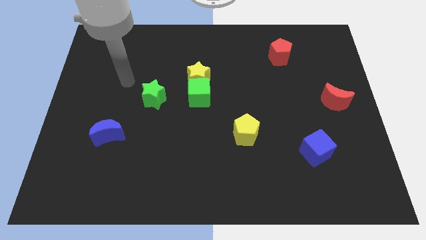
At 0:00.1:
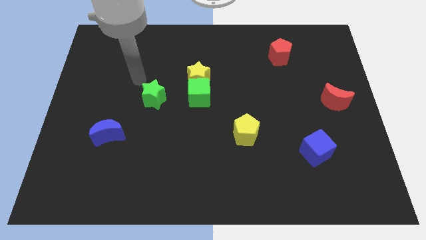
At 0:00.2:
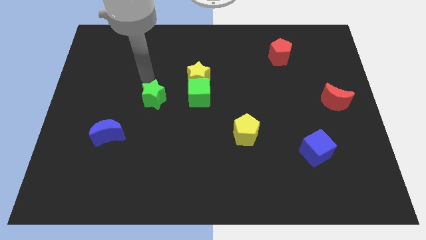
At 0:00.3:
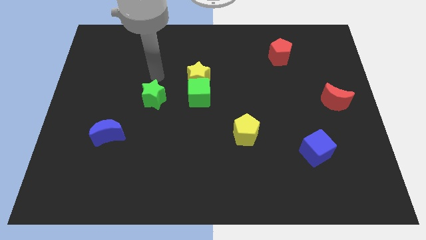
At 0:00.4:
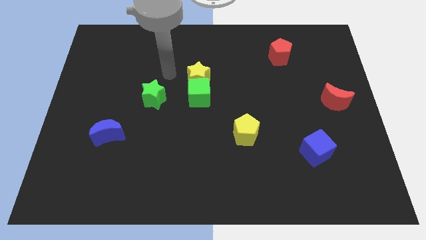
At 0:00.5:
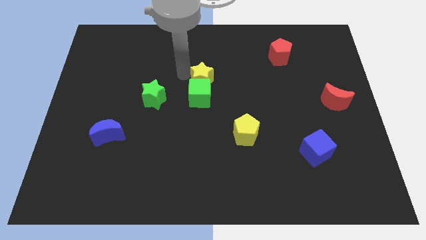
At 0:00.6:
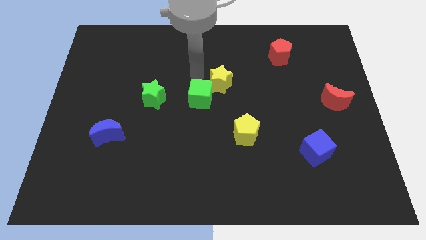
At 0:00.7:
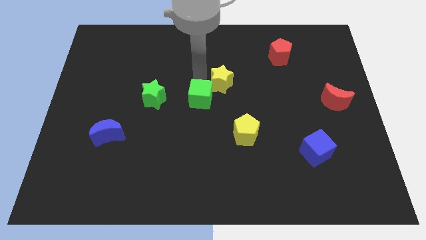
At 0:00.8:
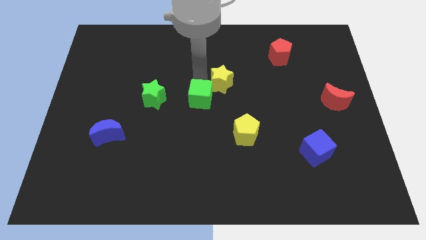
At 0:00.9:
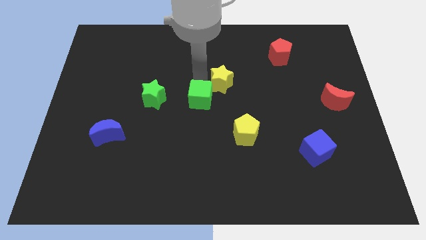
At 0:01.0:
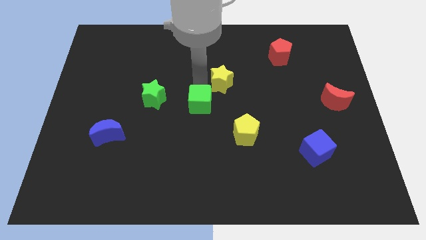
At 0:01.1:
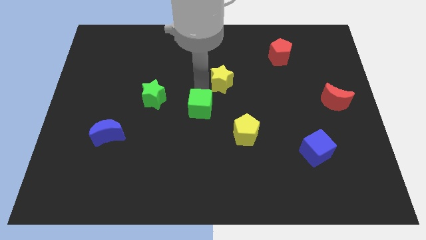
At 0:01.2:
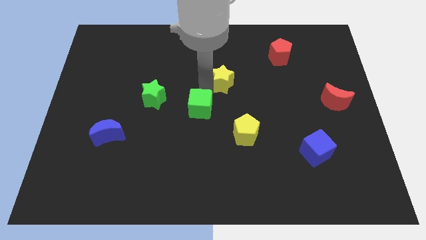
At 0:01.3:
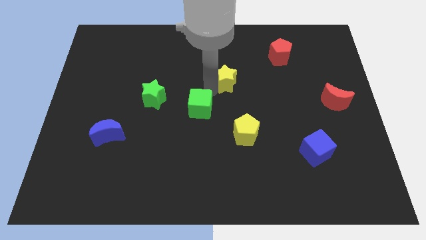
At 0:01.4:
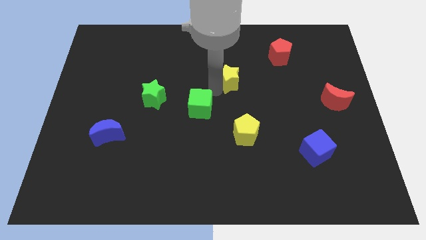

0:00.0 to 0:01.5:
separate the green cube from the yellow star

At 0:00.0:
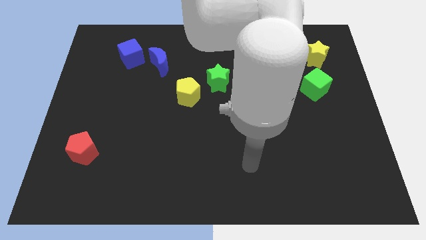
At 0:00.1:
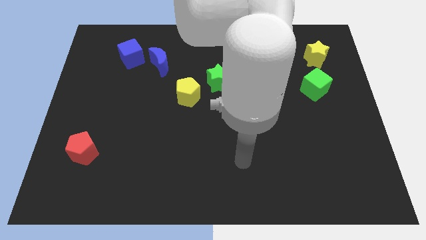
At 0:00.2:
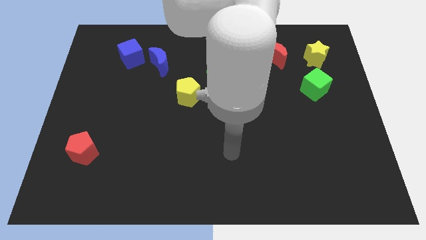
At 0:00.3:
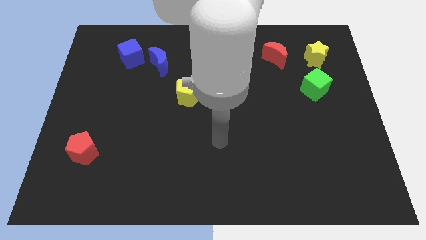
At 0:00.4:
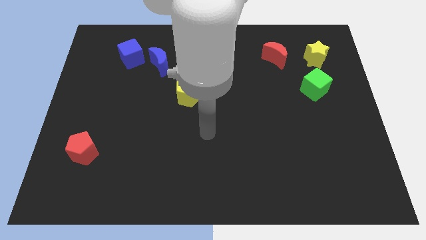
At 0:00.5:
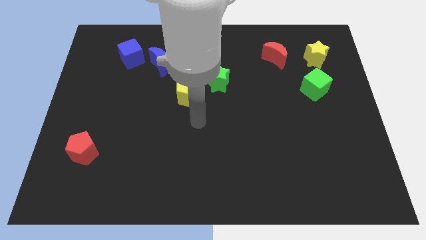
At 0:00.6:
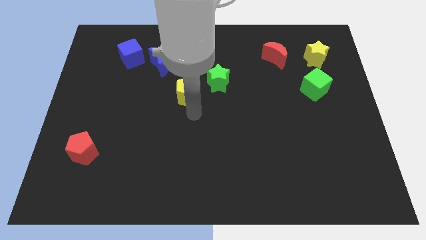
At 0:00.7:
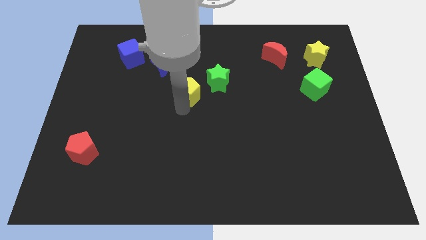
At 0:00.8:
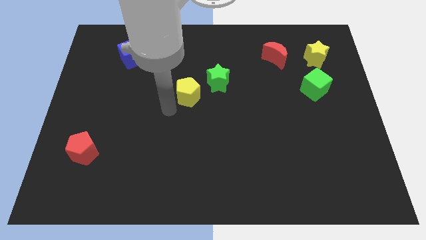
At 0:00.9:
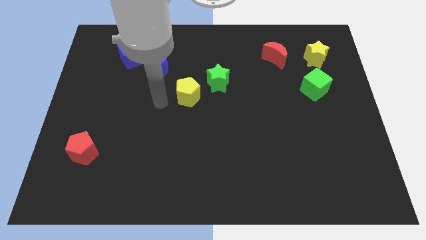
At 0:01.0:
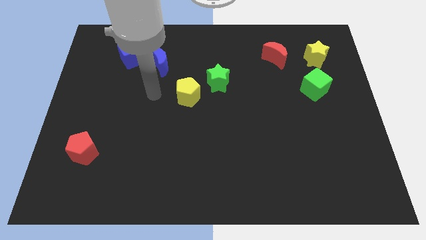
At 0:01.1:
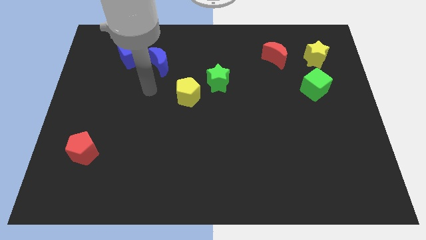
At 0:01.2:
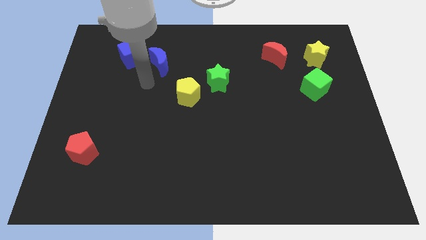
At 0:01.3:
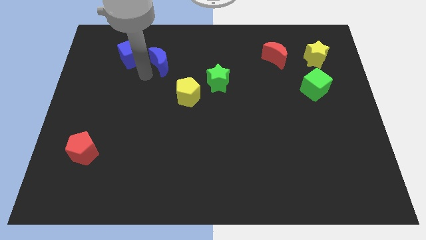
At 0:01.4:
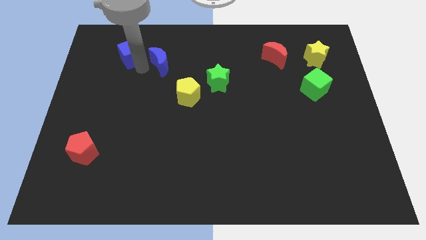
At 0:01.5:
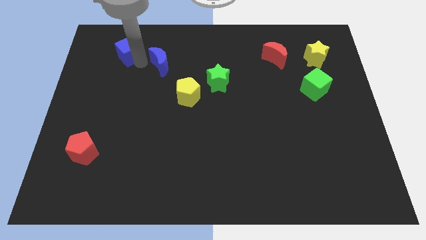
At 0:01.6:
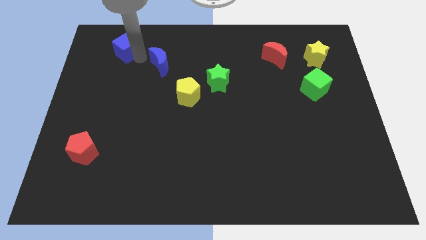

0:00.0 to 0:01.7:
move the blue moon away from the blue cube

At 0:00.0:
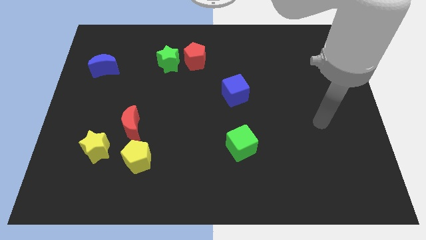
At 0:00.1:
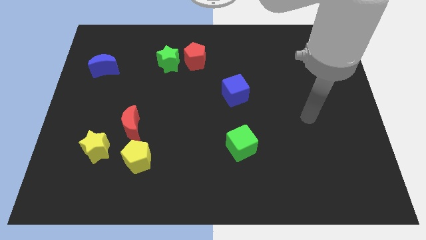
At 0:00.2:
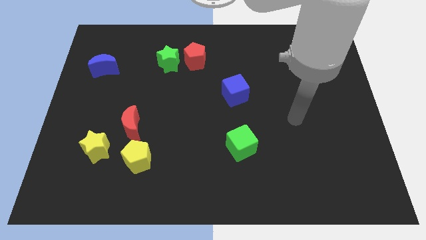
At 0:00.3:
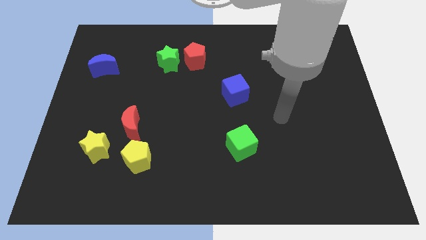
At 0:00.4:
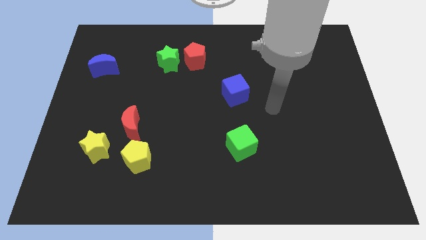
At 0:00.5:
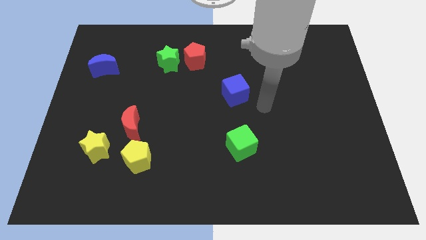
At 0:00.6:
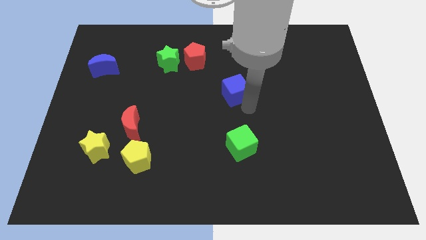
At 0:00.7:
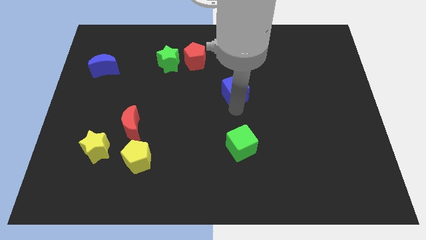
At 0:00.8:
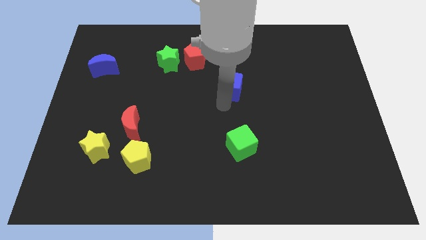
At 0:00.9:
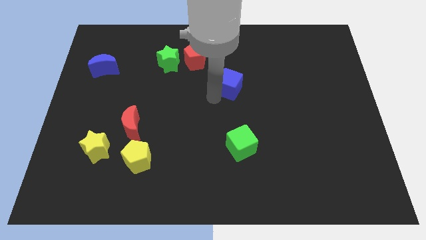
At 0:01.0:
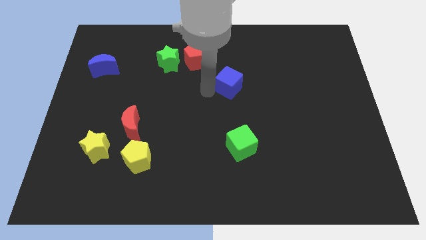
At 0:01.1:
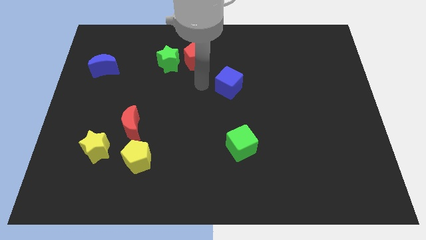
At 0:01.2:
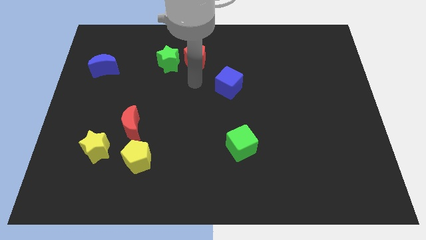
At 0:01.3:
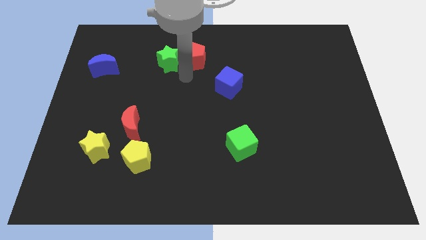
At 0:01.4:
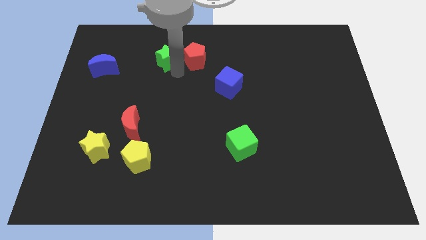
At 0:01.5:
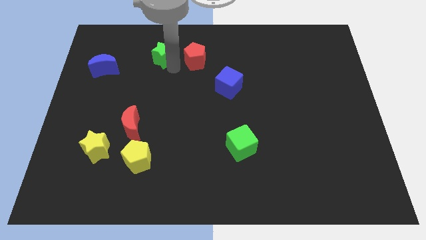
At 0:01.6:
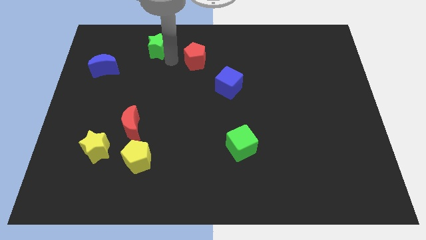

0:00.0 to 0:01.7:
pull the red pentagon apart from the green star

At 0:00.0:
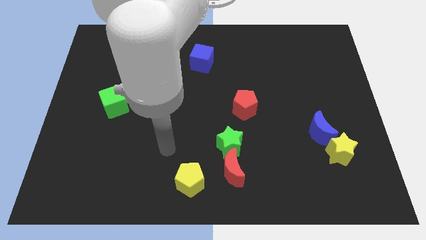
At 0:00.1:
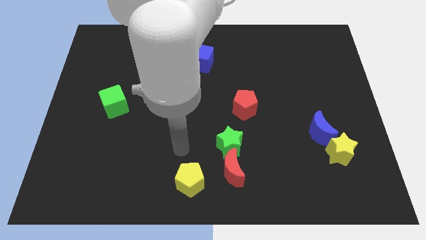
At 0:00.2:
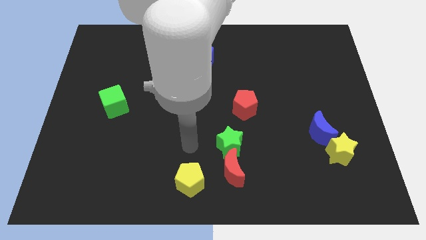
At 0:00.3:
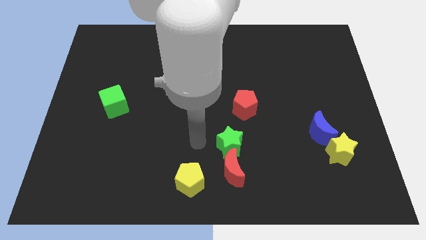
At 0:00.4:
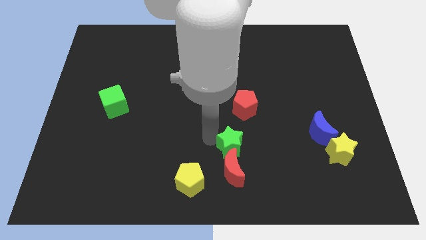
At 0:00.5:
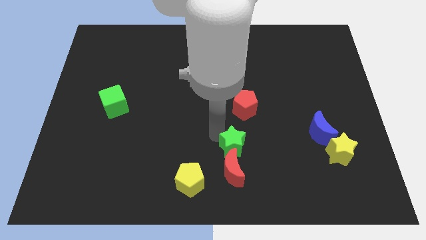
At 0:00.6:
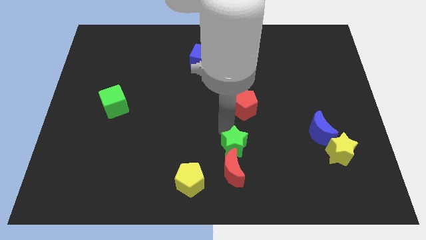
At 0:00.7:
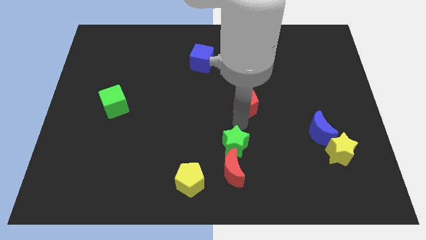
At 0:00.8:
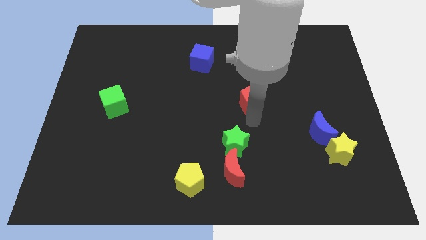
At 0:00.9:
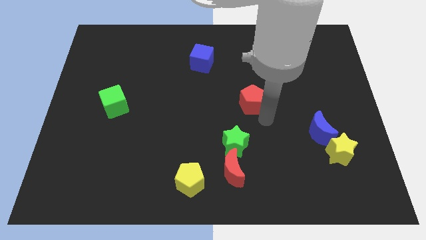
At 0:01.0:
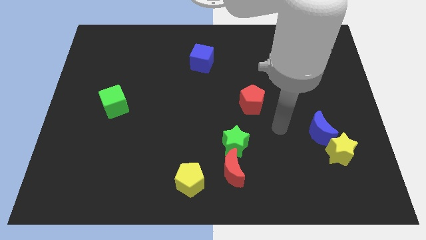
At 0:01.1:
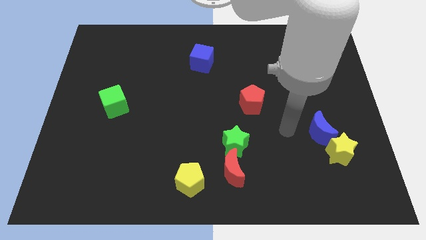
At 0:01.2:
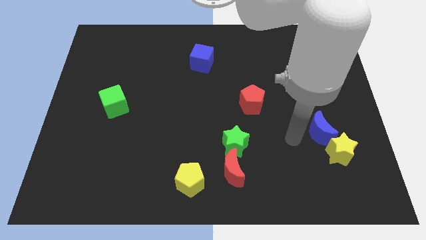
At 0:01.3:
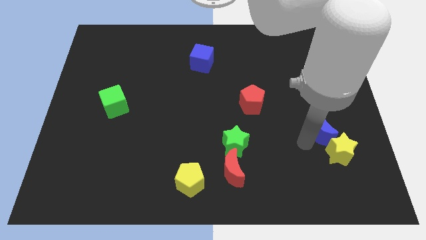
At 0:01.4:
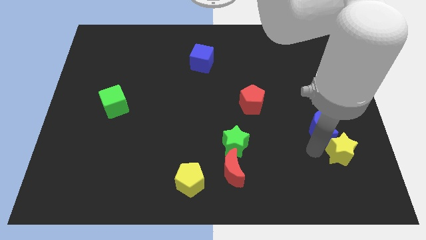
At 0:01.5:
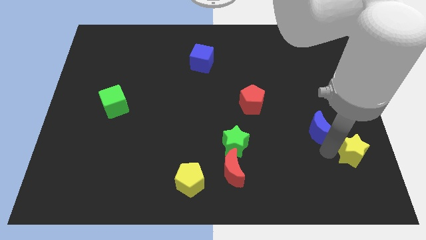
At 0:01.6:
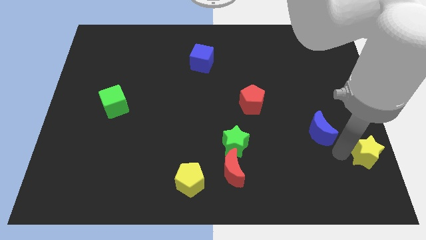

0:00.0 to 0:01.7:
pull the blue moon apart from the yellow star

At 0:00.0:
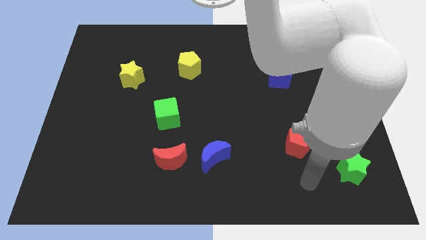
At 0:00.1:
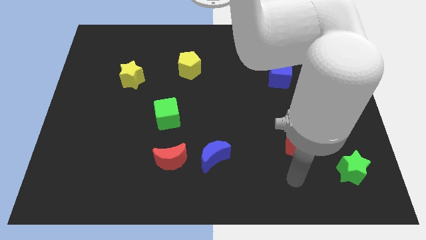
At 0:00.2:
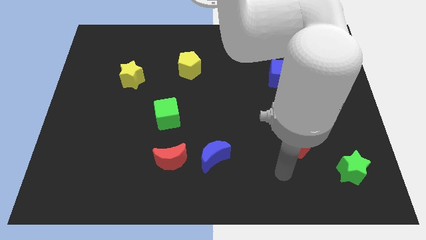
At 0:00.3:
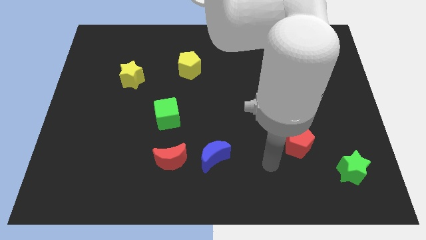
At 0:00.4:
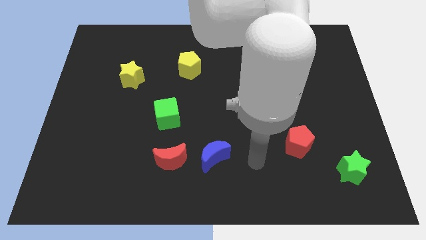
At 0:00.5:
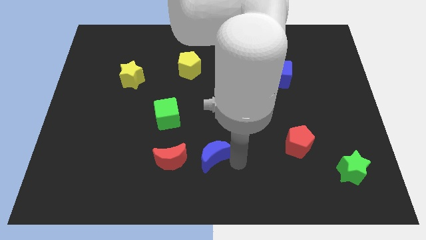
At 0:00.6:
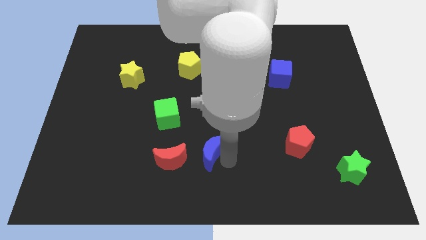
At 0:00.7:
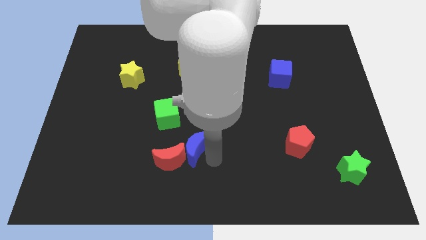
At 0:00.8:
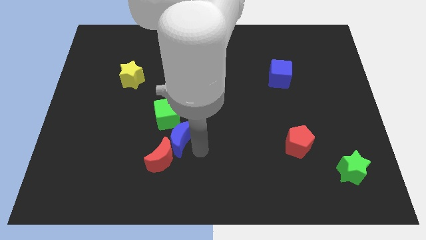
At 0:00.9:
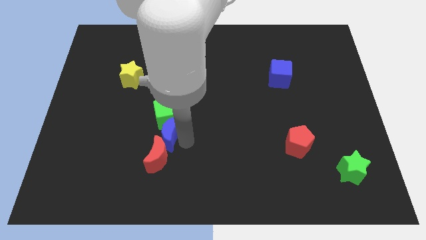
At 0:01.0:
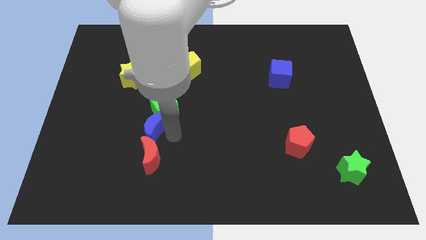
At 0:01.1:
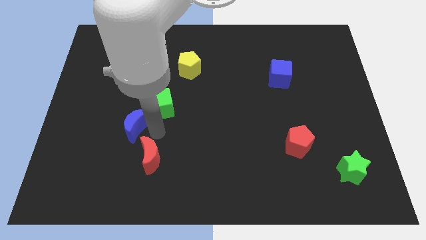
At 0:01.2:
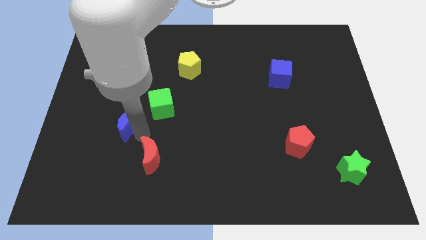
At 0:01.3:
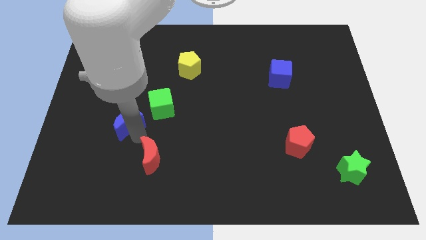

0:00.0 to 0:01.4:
separate the red moon from the blue moon

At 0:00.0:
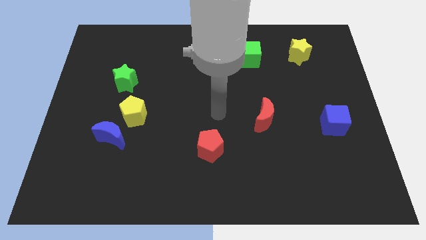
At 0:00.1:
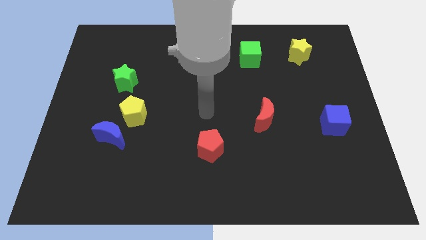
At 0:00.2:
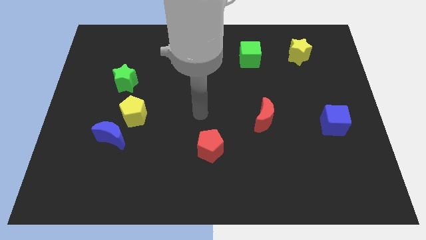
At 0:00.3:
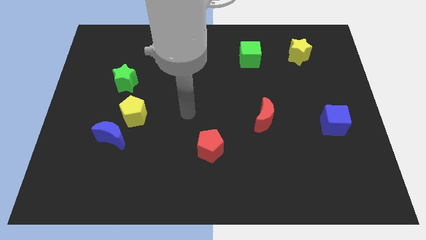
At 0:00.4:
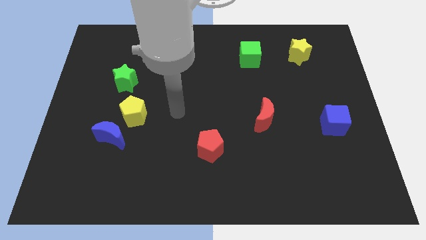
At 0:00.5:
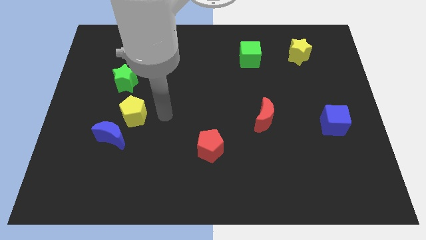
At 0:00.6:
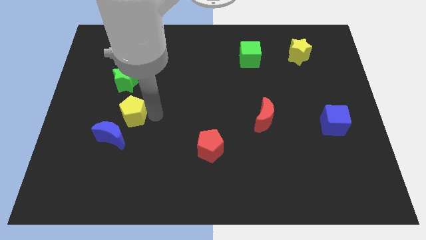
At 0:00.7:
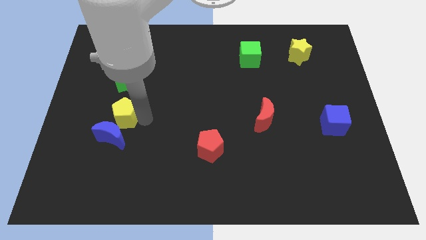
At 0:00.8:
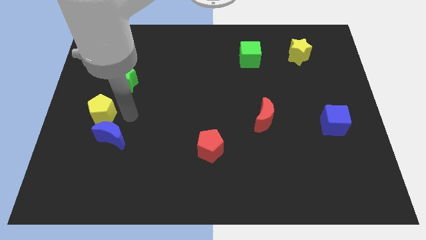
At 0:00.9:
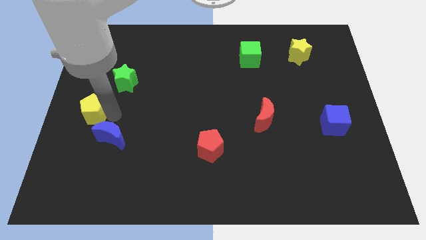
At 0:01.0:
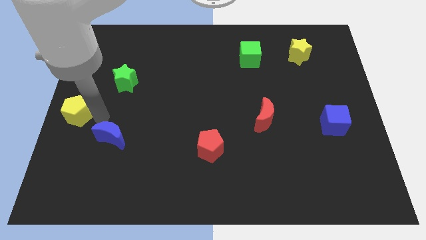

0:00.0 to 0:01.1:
move the blue moon away from the yellow pentagon

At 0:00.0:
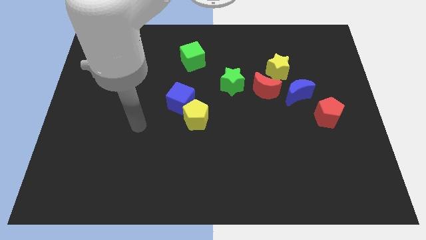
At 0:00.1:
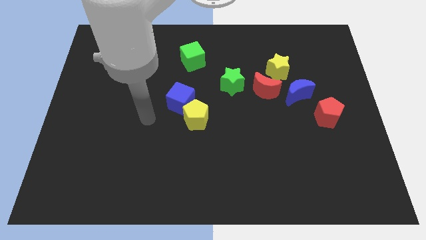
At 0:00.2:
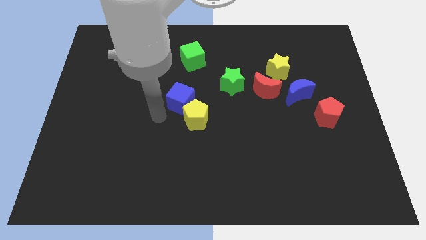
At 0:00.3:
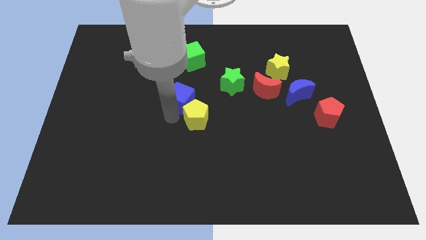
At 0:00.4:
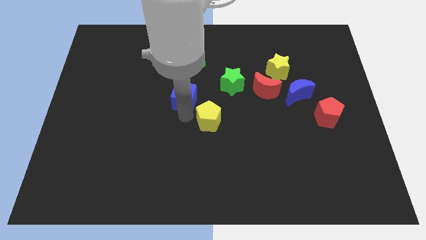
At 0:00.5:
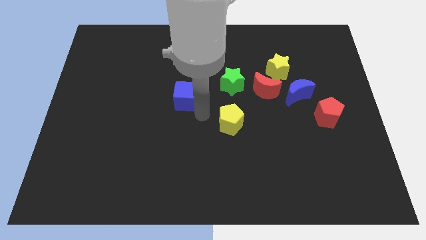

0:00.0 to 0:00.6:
pull the blue cube apart from the yellow pentagon
